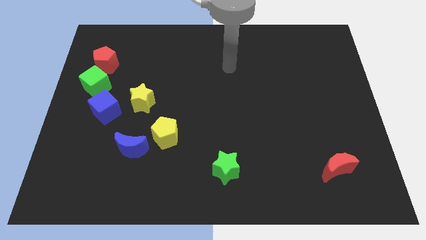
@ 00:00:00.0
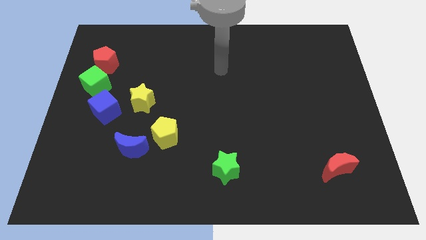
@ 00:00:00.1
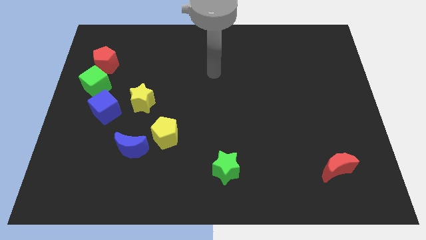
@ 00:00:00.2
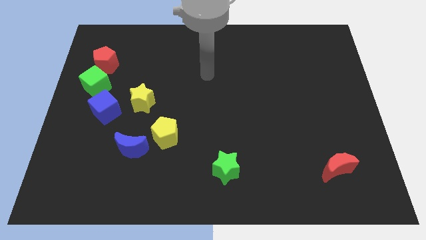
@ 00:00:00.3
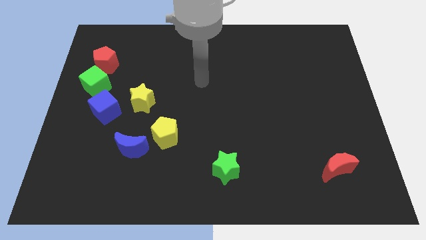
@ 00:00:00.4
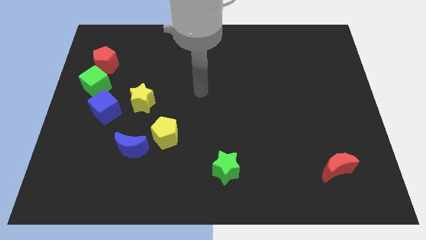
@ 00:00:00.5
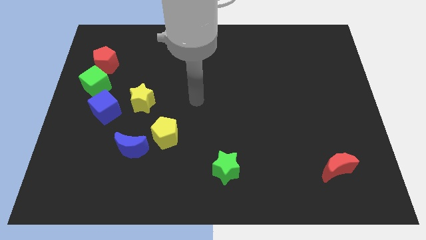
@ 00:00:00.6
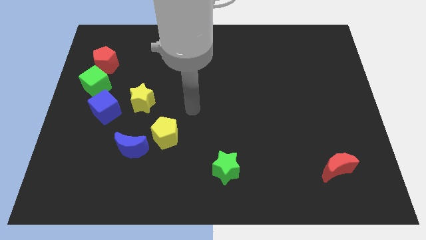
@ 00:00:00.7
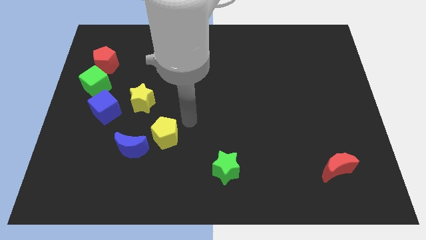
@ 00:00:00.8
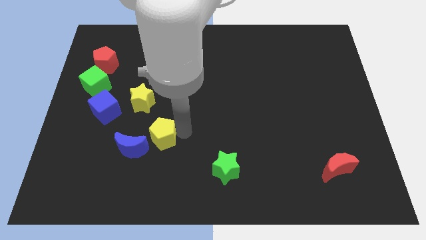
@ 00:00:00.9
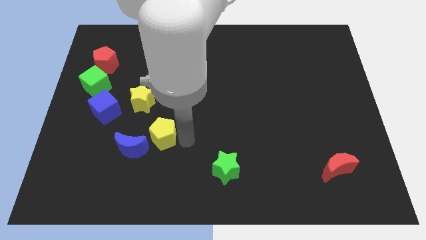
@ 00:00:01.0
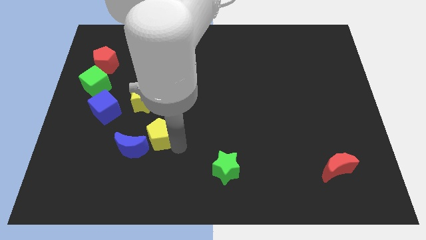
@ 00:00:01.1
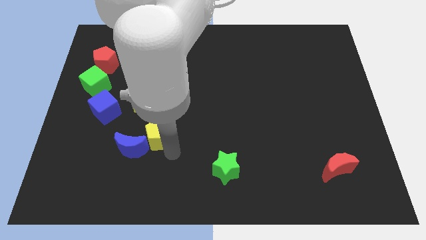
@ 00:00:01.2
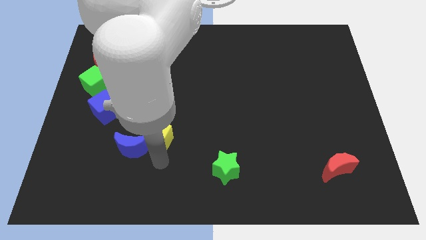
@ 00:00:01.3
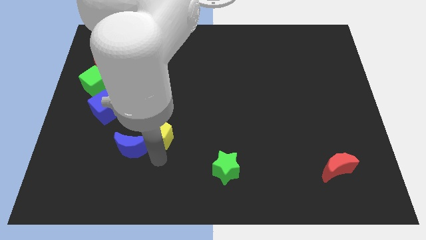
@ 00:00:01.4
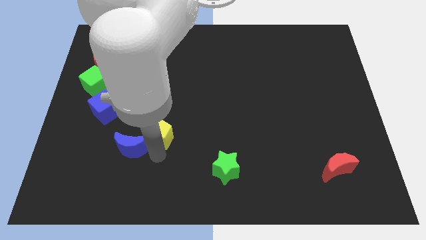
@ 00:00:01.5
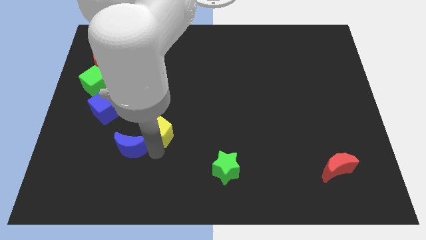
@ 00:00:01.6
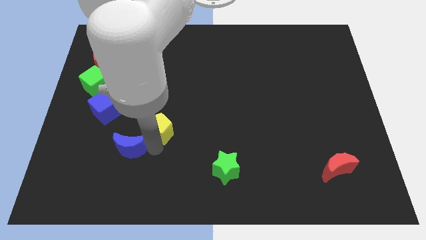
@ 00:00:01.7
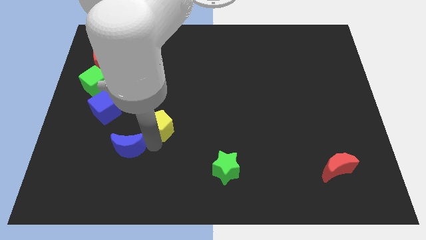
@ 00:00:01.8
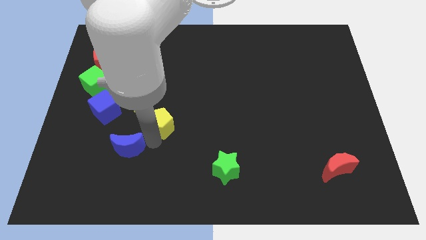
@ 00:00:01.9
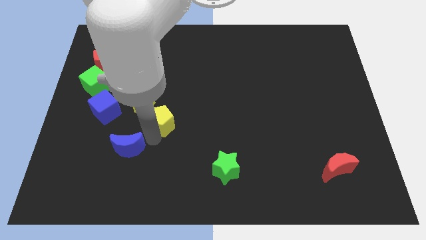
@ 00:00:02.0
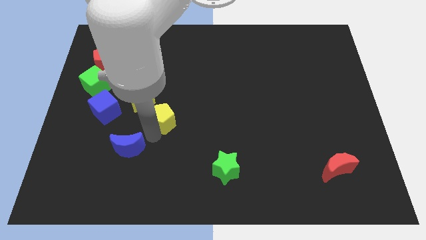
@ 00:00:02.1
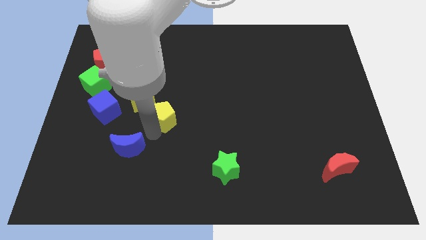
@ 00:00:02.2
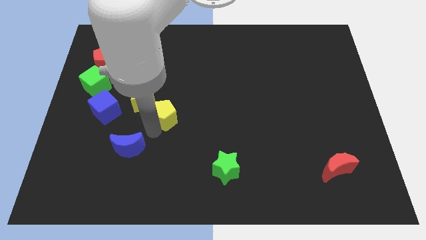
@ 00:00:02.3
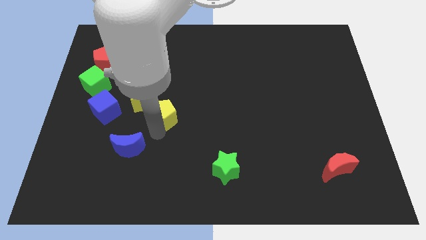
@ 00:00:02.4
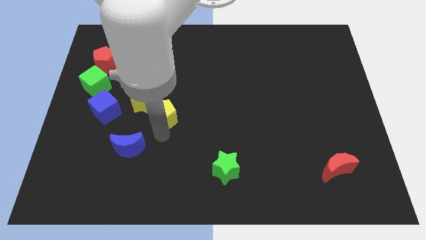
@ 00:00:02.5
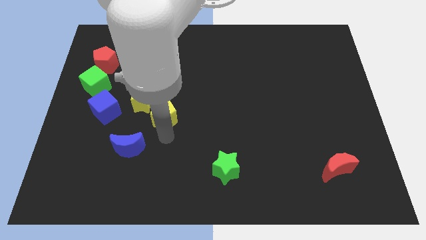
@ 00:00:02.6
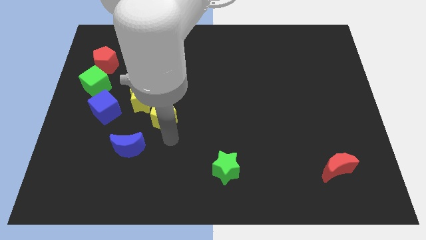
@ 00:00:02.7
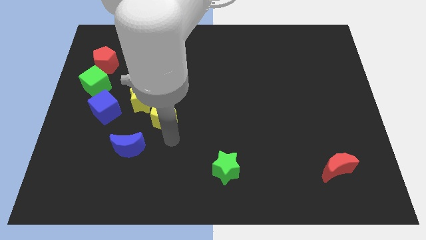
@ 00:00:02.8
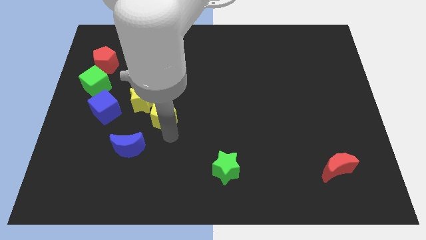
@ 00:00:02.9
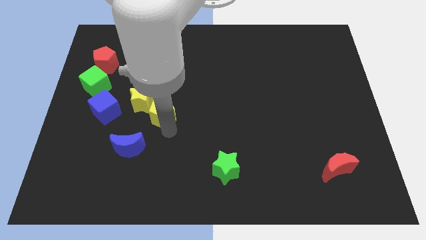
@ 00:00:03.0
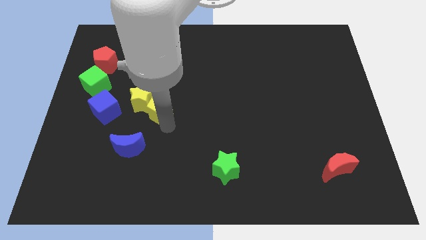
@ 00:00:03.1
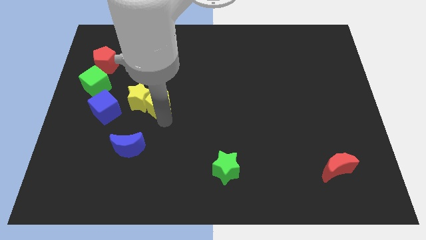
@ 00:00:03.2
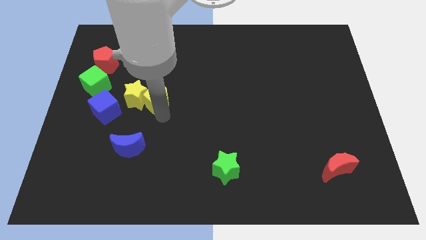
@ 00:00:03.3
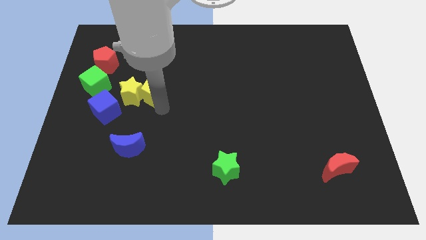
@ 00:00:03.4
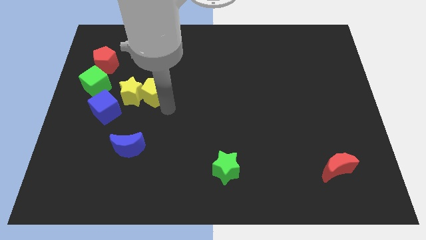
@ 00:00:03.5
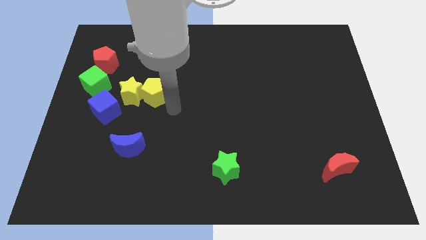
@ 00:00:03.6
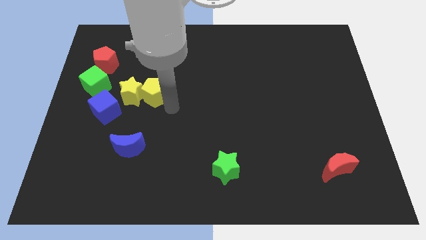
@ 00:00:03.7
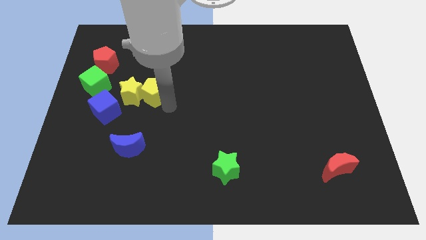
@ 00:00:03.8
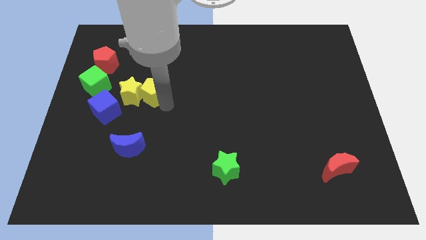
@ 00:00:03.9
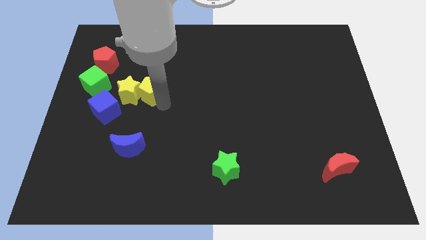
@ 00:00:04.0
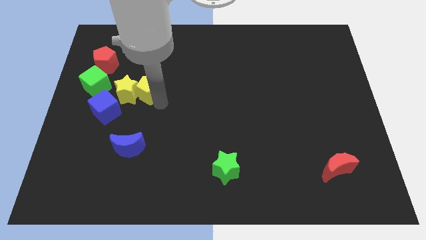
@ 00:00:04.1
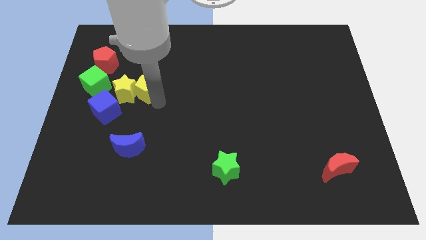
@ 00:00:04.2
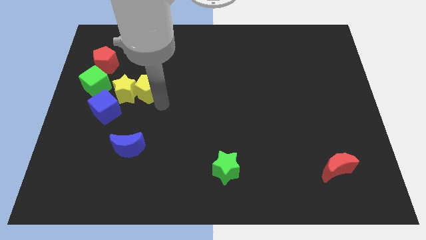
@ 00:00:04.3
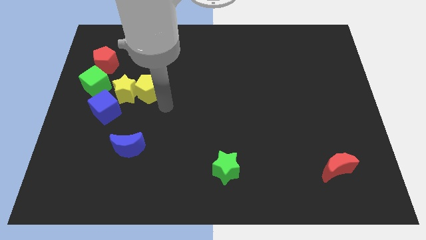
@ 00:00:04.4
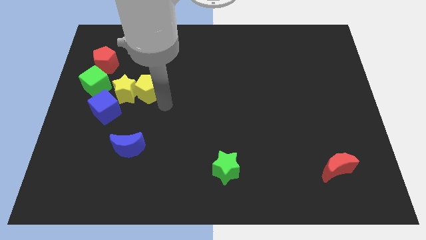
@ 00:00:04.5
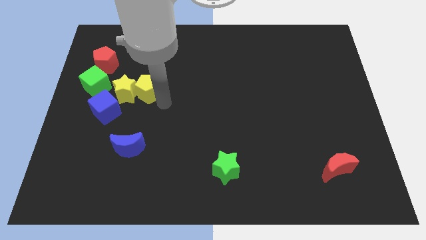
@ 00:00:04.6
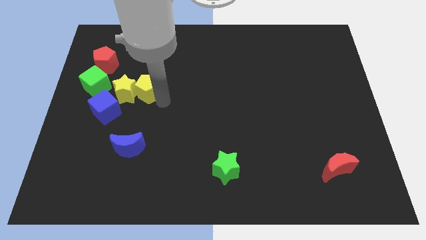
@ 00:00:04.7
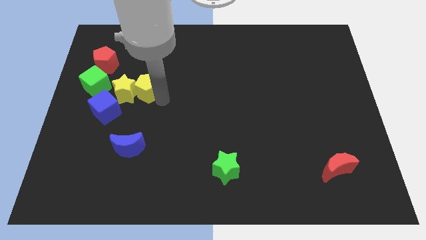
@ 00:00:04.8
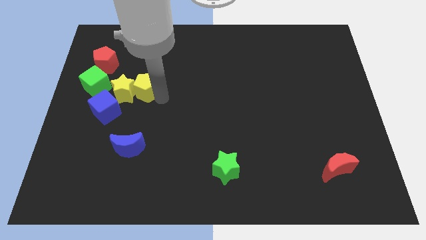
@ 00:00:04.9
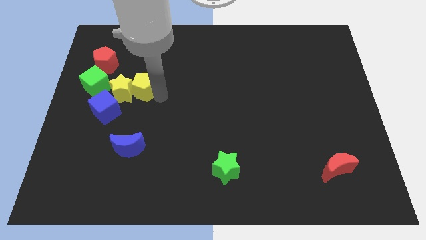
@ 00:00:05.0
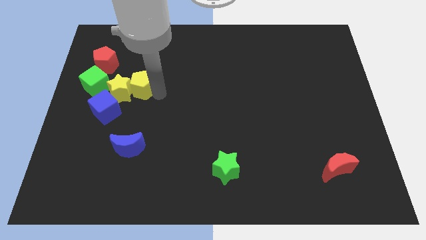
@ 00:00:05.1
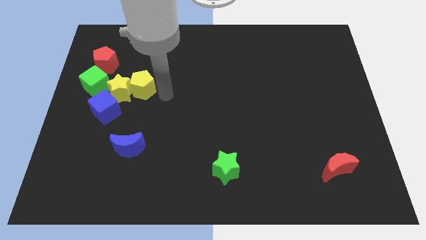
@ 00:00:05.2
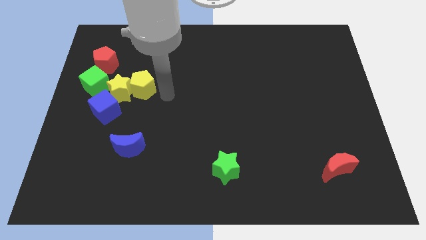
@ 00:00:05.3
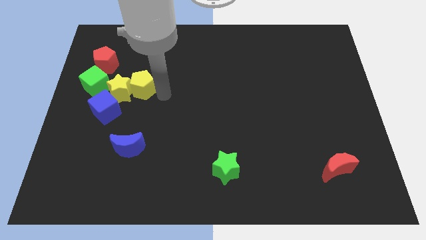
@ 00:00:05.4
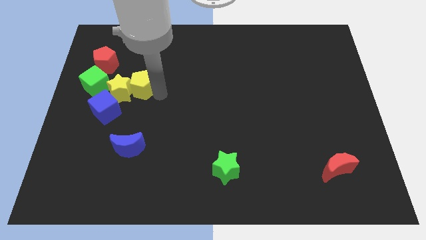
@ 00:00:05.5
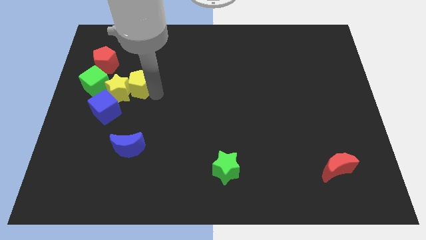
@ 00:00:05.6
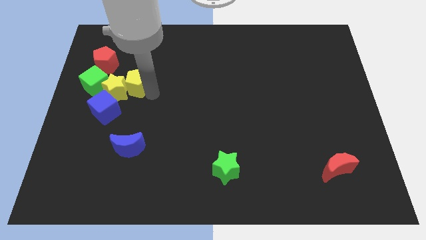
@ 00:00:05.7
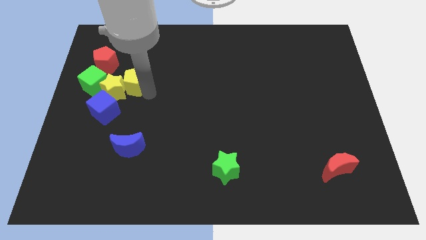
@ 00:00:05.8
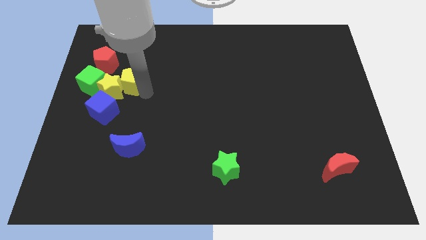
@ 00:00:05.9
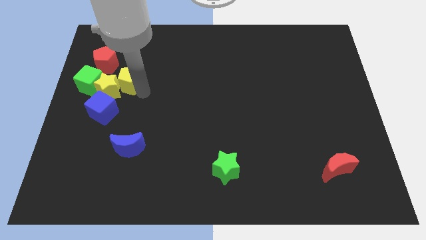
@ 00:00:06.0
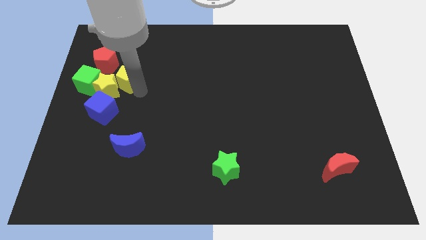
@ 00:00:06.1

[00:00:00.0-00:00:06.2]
move the yellow pentagon to the top side of the blue cube

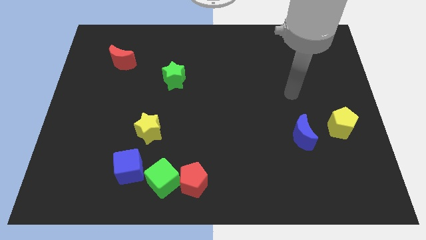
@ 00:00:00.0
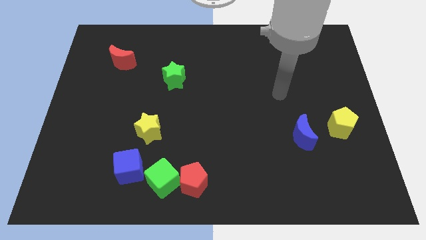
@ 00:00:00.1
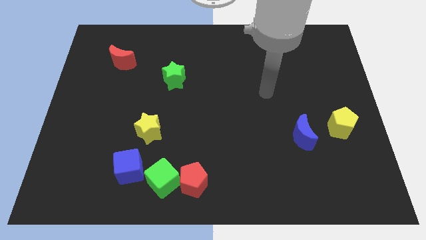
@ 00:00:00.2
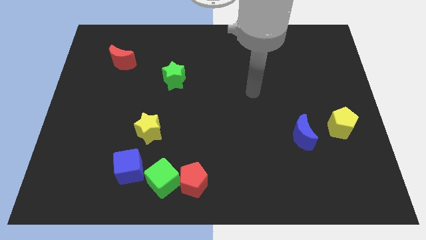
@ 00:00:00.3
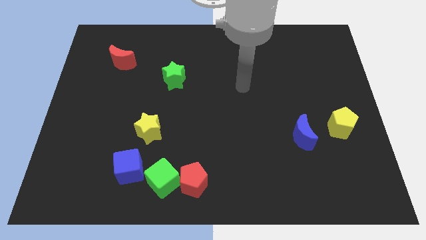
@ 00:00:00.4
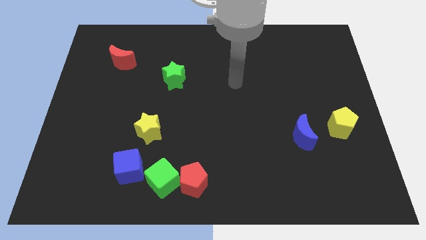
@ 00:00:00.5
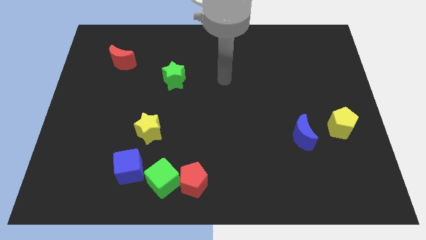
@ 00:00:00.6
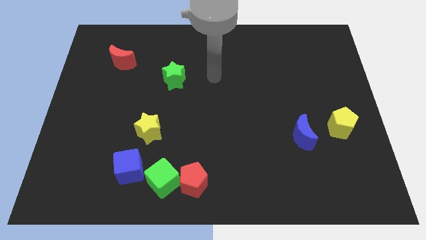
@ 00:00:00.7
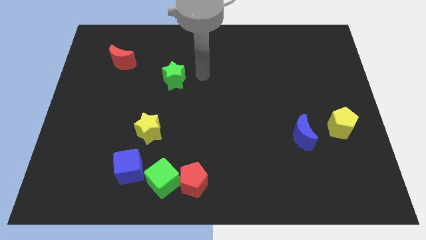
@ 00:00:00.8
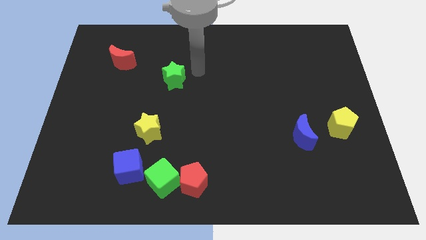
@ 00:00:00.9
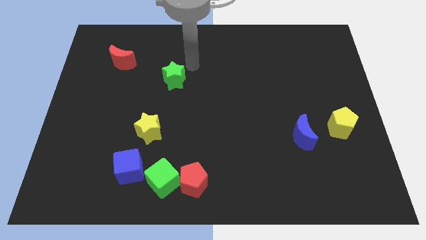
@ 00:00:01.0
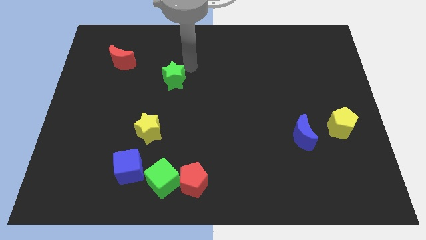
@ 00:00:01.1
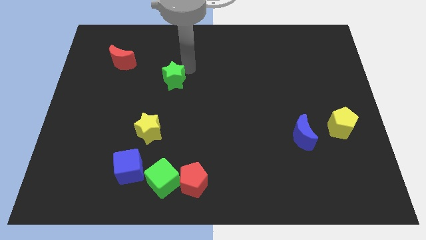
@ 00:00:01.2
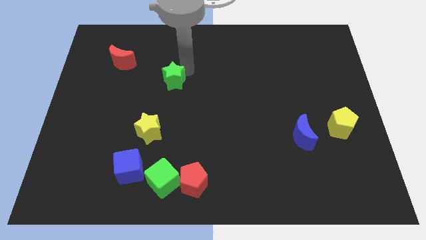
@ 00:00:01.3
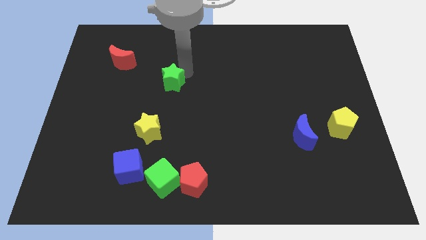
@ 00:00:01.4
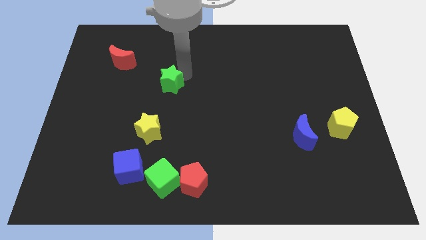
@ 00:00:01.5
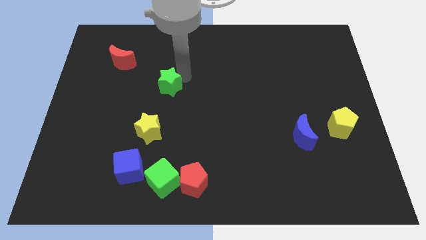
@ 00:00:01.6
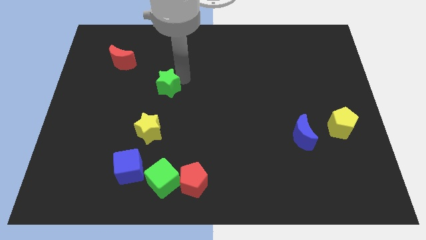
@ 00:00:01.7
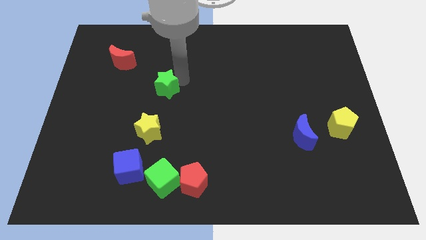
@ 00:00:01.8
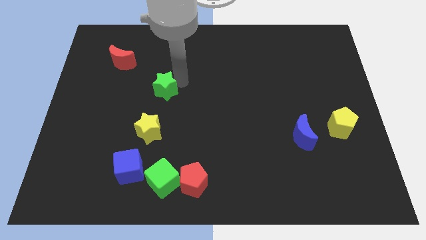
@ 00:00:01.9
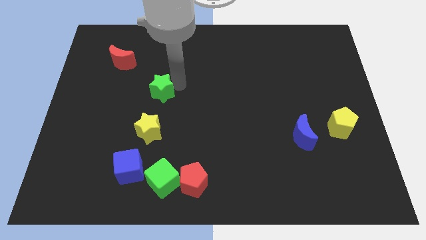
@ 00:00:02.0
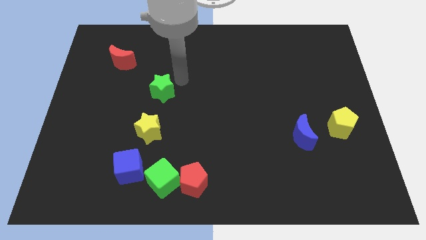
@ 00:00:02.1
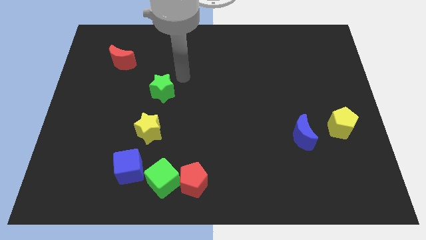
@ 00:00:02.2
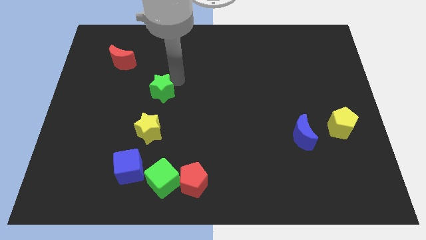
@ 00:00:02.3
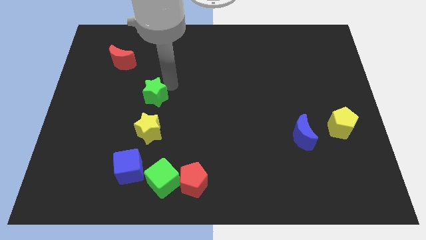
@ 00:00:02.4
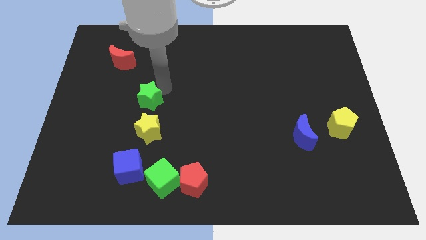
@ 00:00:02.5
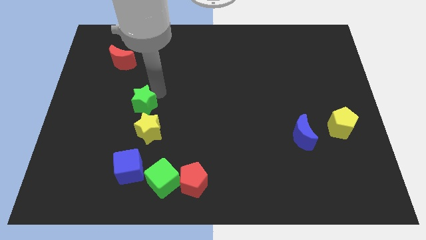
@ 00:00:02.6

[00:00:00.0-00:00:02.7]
put the green star to the top left of the yellow star
